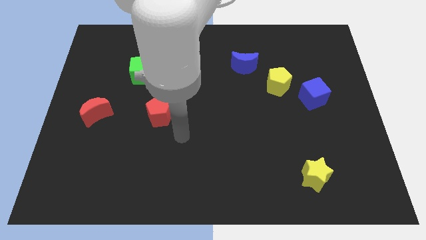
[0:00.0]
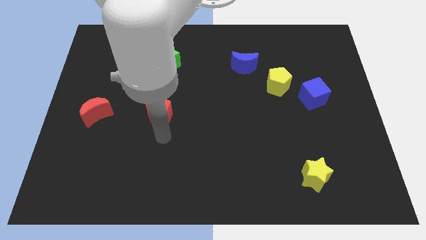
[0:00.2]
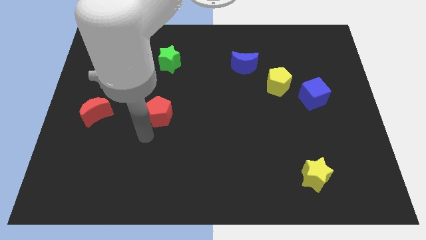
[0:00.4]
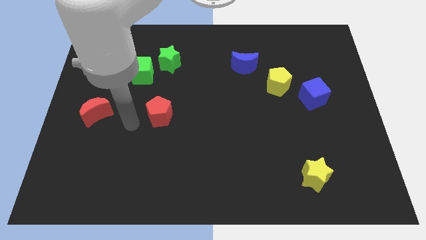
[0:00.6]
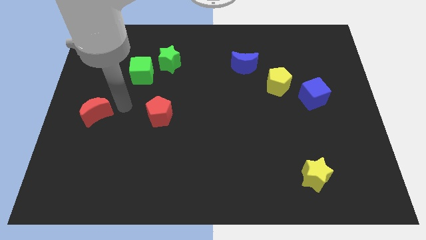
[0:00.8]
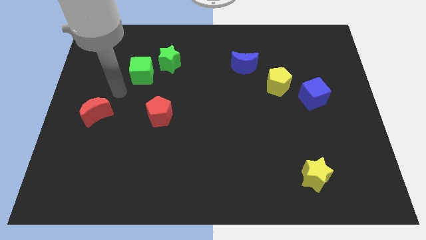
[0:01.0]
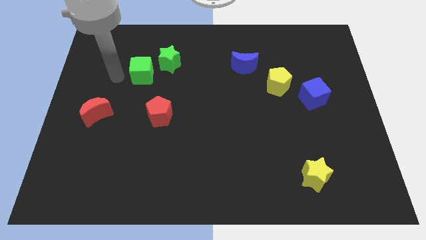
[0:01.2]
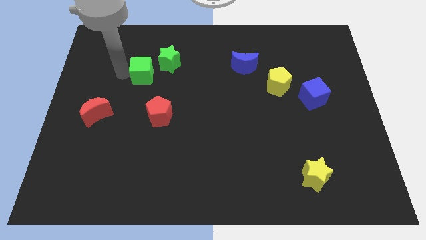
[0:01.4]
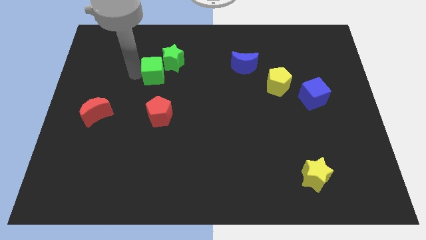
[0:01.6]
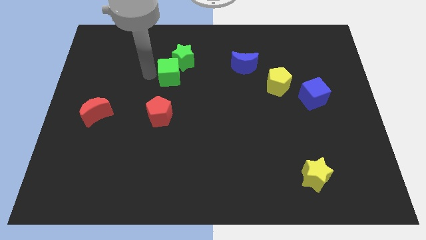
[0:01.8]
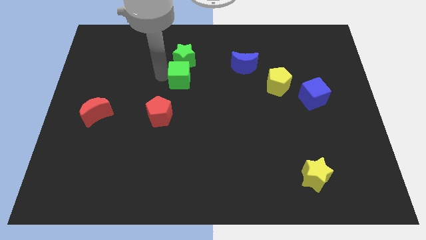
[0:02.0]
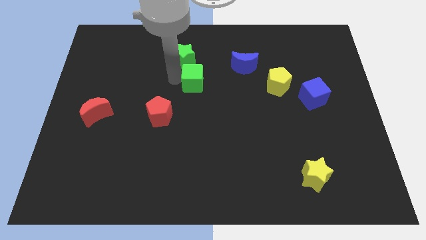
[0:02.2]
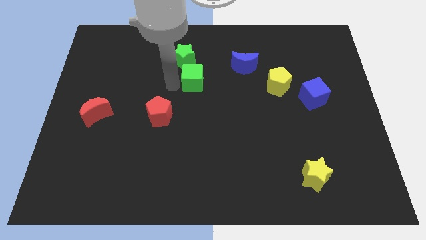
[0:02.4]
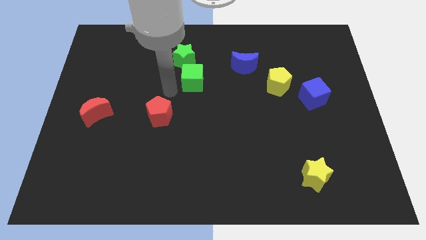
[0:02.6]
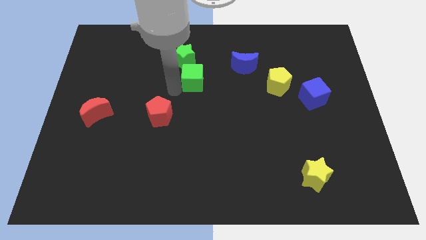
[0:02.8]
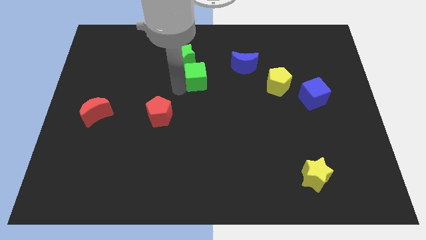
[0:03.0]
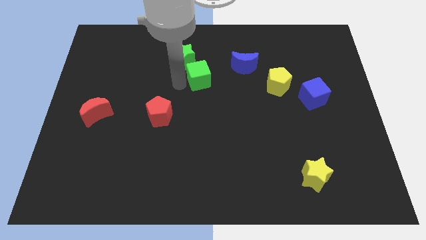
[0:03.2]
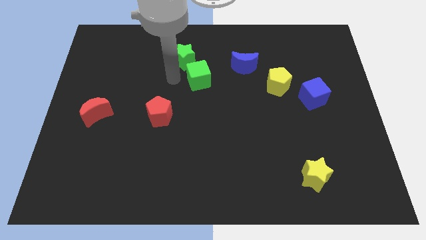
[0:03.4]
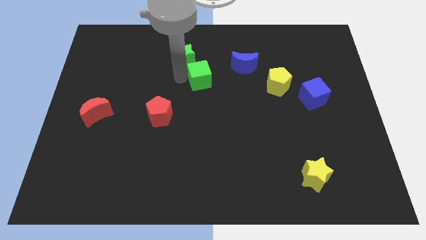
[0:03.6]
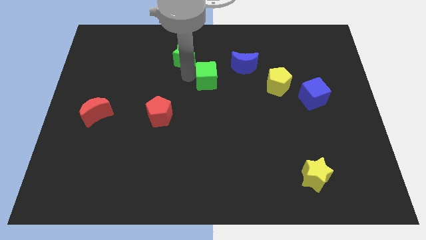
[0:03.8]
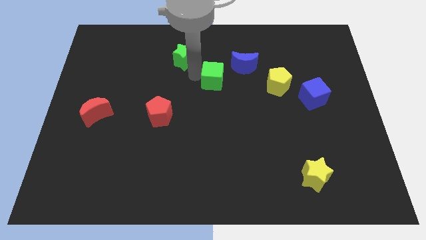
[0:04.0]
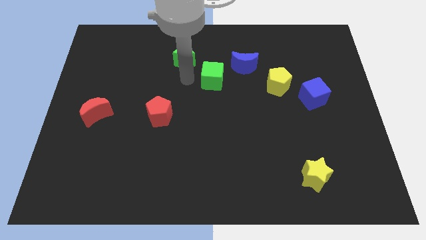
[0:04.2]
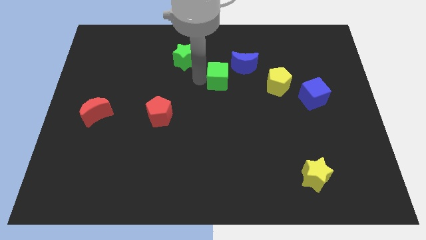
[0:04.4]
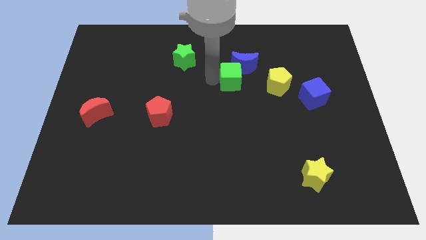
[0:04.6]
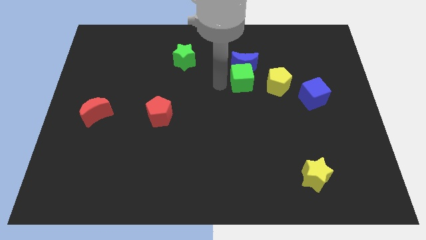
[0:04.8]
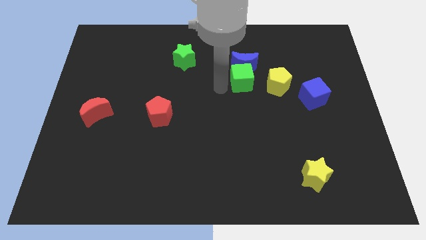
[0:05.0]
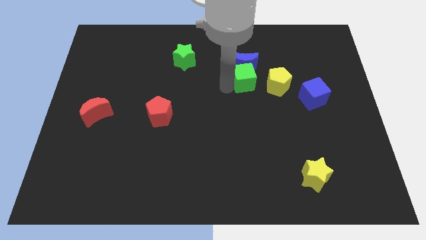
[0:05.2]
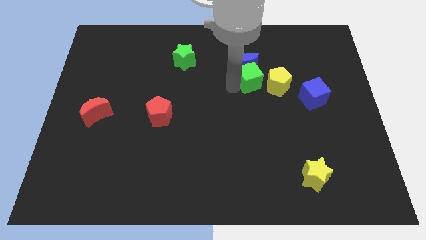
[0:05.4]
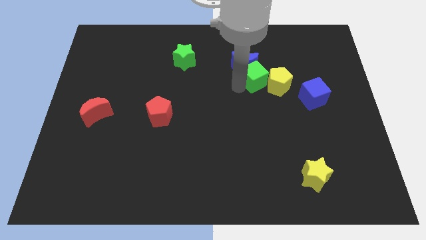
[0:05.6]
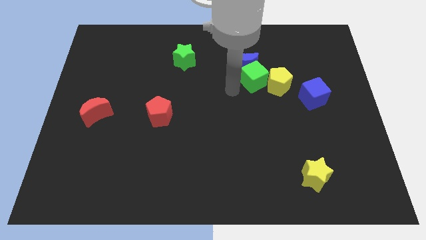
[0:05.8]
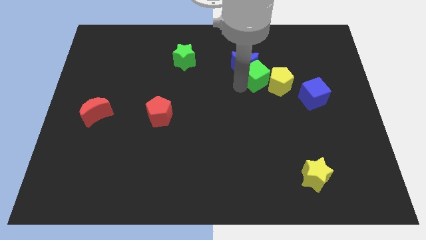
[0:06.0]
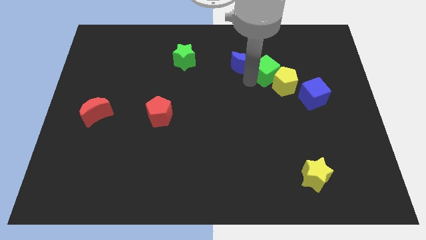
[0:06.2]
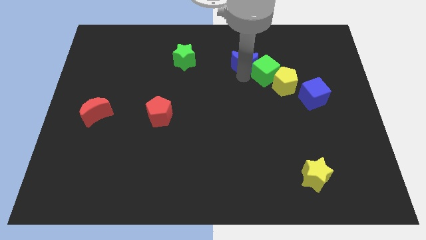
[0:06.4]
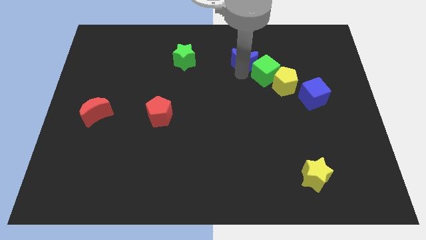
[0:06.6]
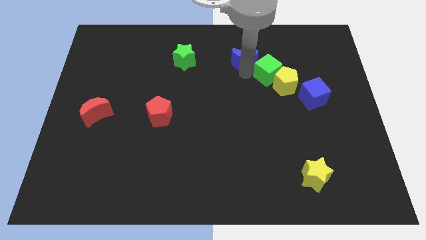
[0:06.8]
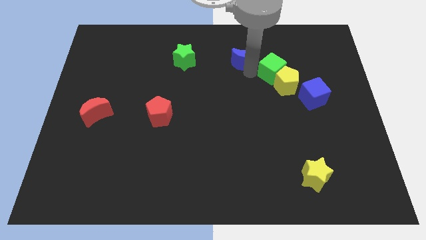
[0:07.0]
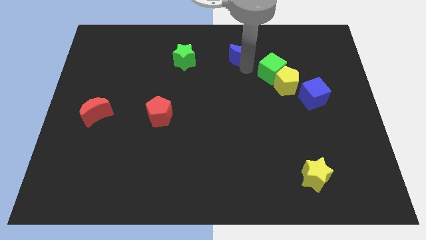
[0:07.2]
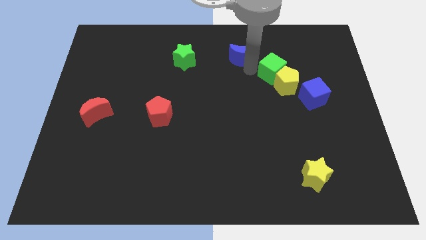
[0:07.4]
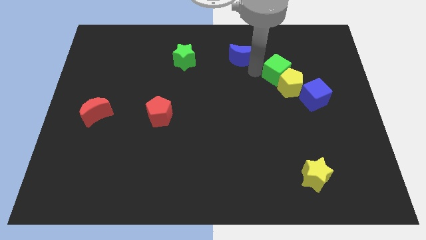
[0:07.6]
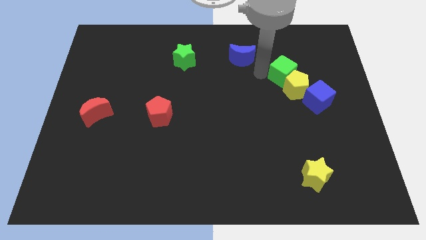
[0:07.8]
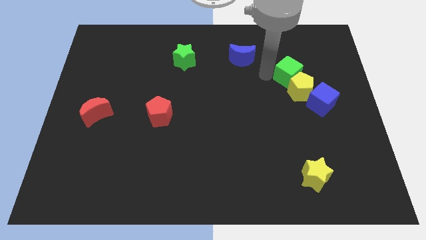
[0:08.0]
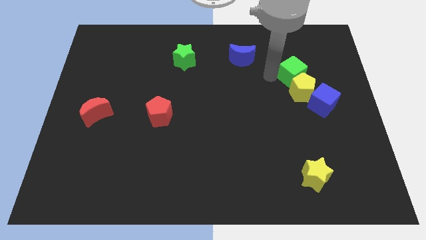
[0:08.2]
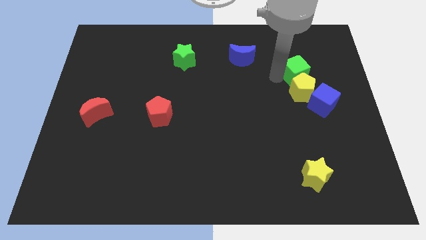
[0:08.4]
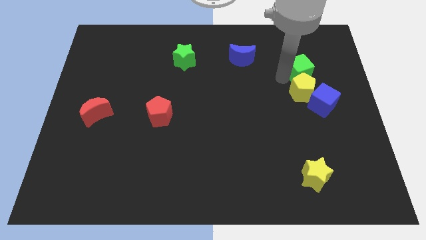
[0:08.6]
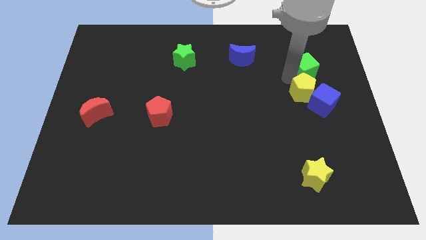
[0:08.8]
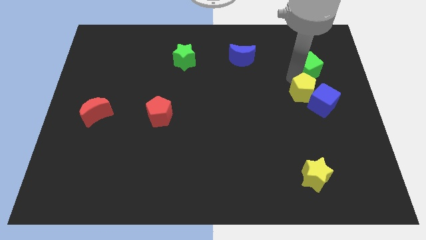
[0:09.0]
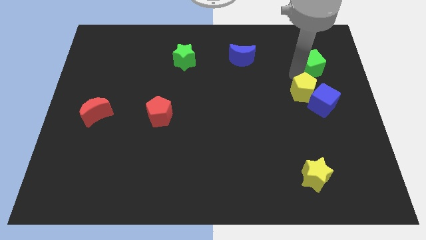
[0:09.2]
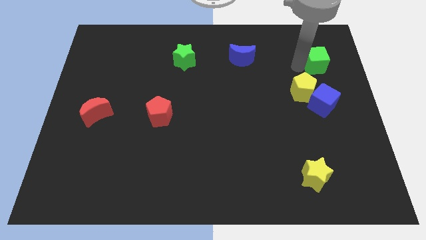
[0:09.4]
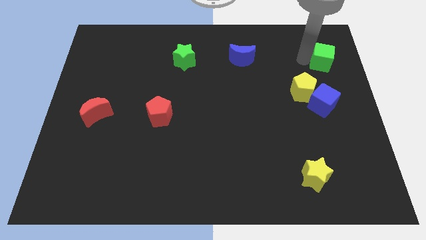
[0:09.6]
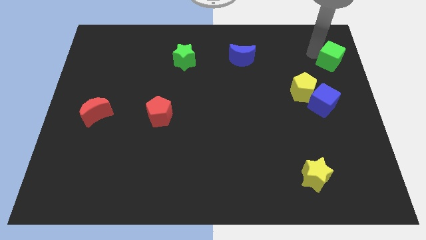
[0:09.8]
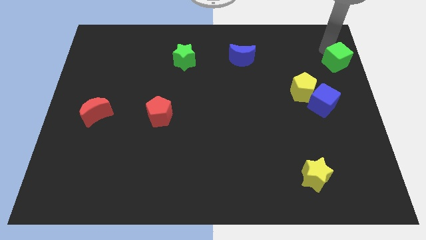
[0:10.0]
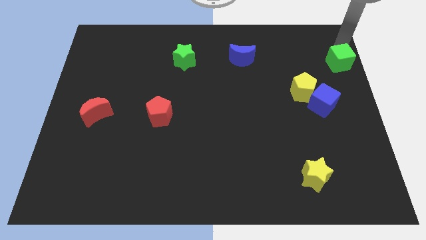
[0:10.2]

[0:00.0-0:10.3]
move the green cube to the right side
